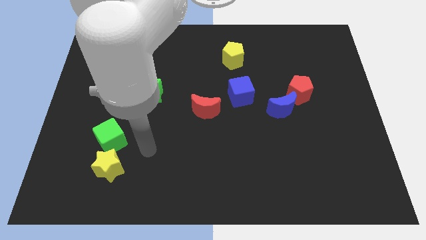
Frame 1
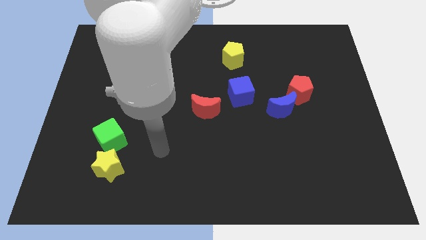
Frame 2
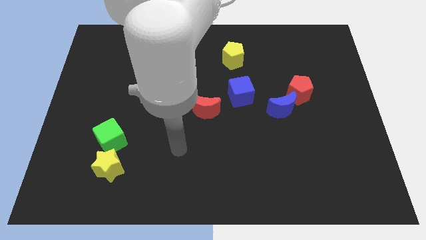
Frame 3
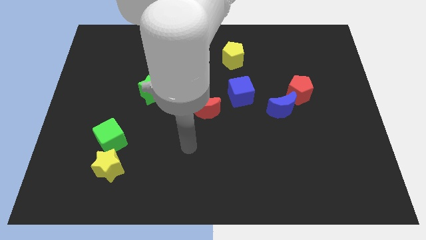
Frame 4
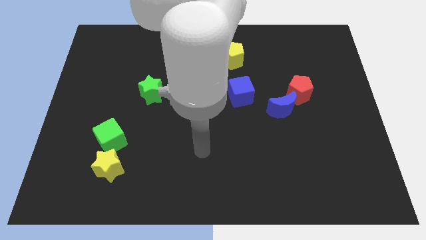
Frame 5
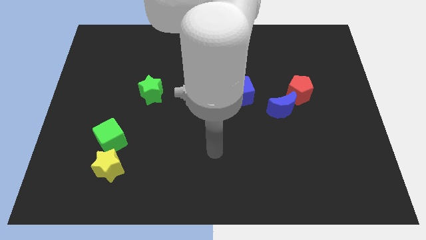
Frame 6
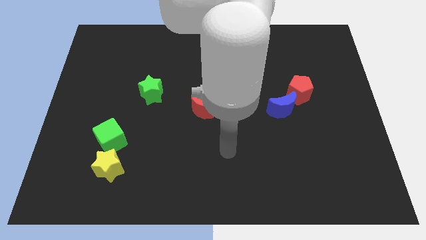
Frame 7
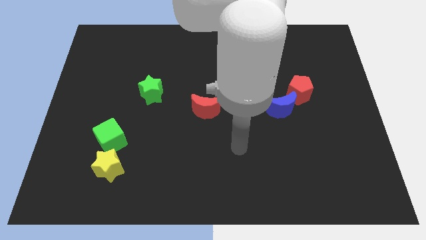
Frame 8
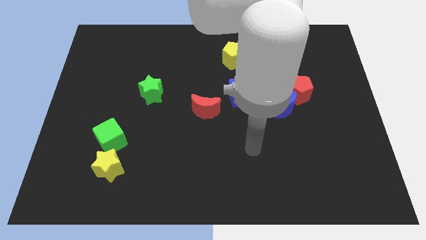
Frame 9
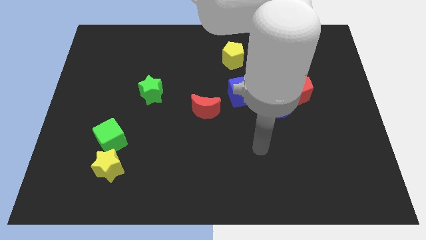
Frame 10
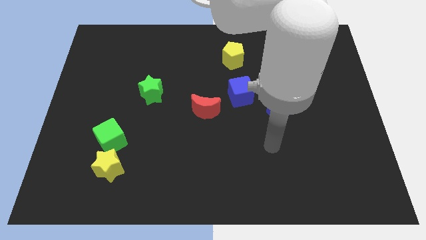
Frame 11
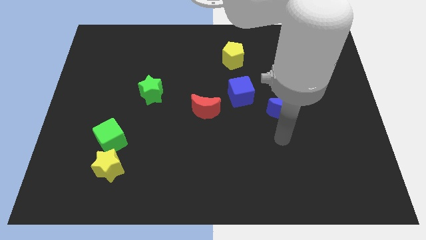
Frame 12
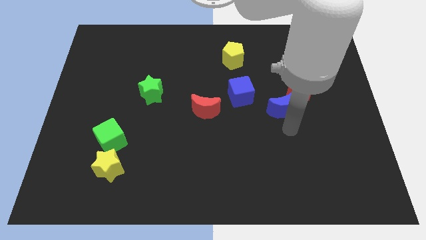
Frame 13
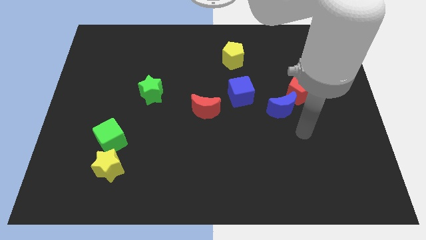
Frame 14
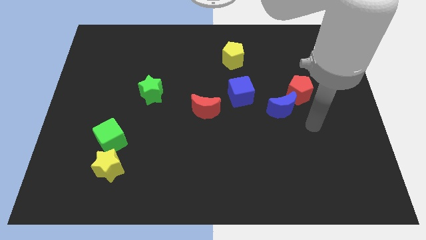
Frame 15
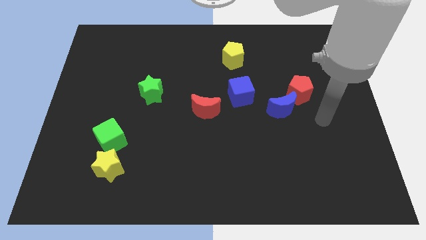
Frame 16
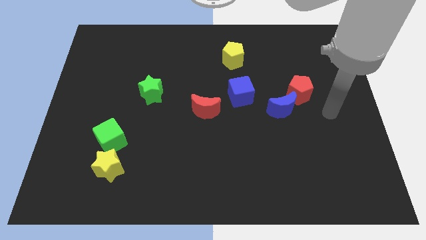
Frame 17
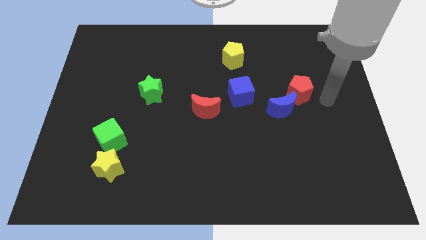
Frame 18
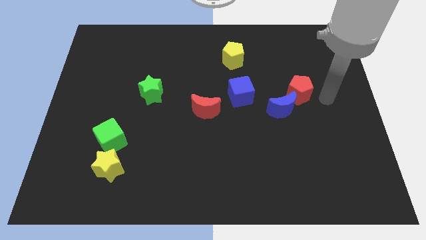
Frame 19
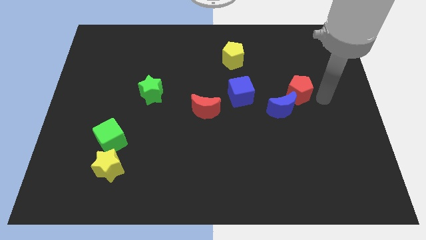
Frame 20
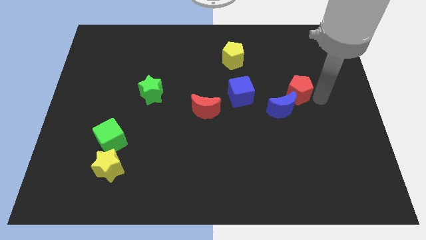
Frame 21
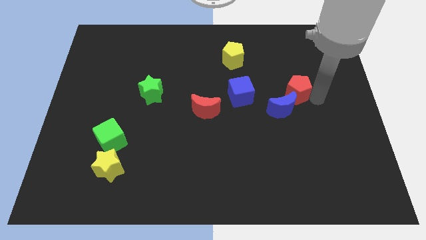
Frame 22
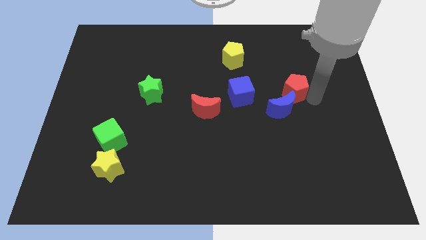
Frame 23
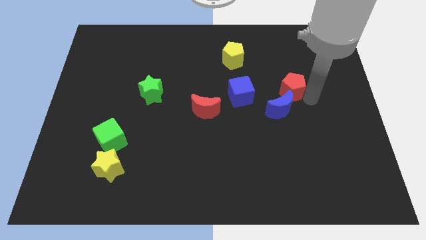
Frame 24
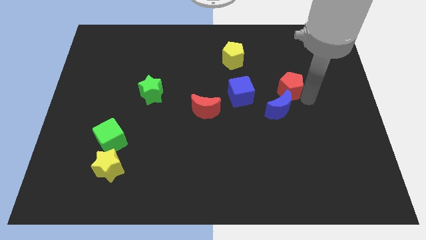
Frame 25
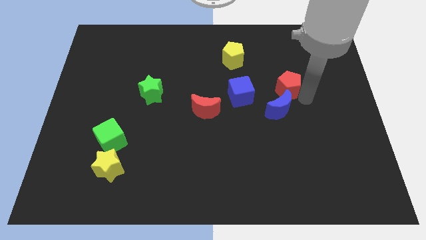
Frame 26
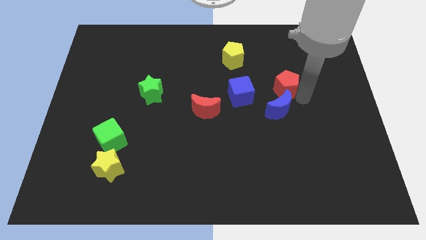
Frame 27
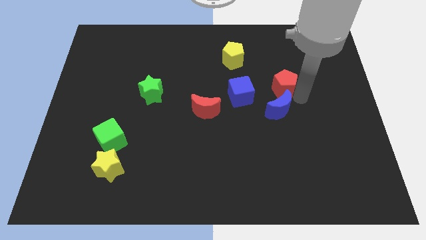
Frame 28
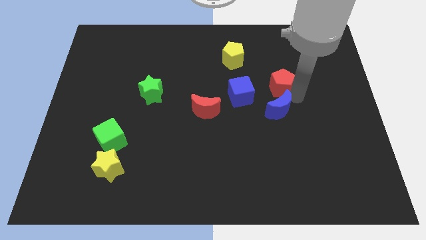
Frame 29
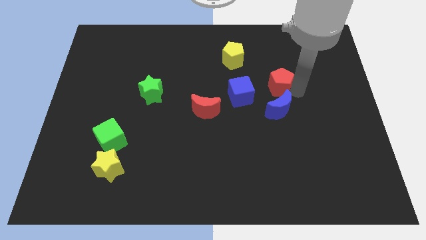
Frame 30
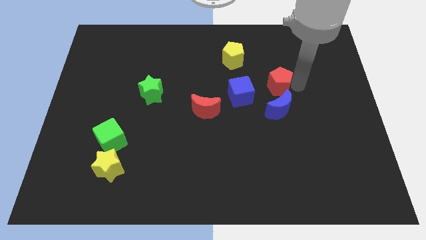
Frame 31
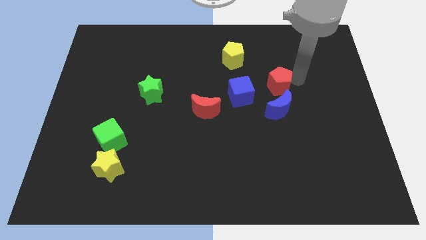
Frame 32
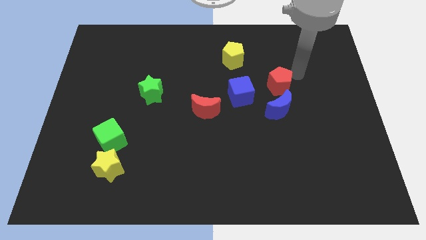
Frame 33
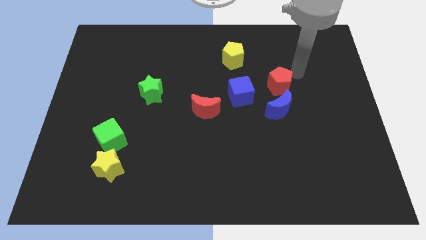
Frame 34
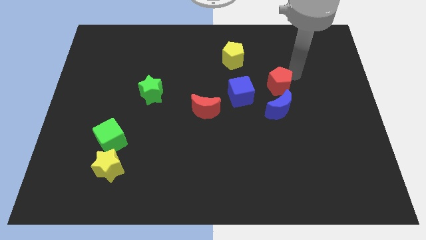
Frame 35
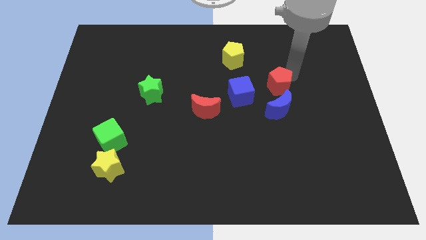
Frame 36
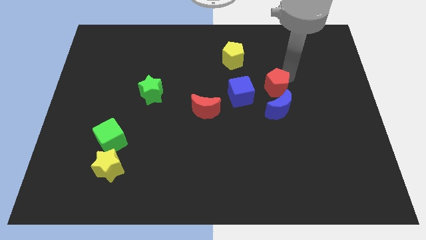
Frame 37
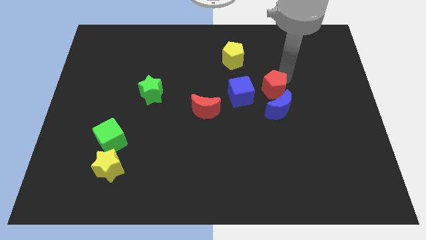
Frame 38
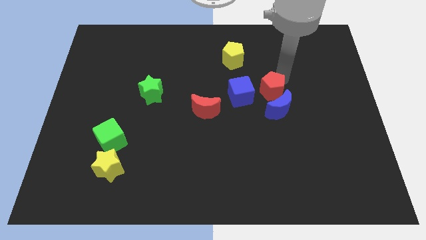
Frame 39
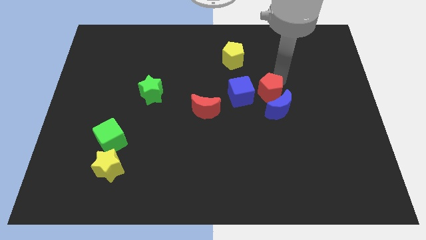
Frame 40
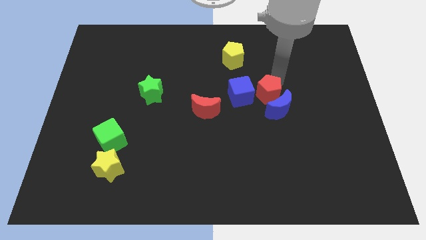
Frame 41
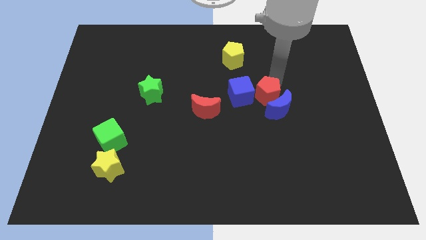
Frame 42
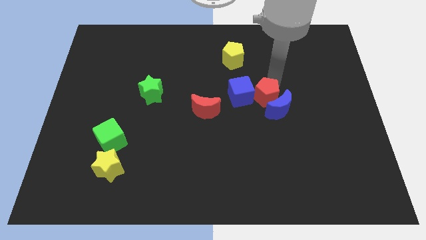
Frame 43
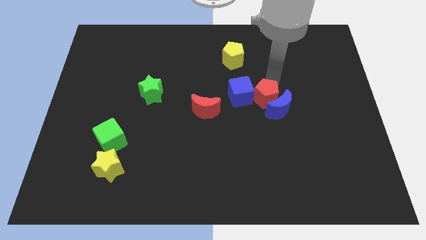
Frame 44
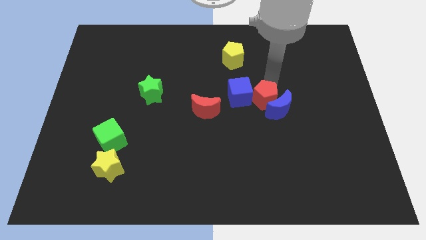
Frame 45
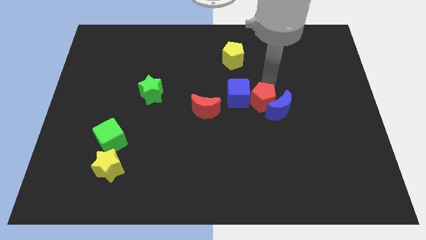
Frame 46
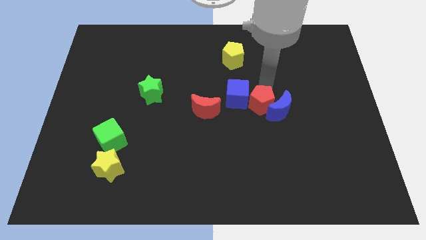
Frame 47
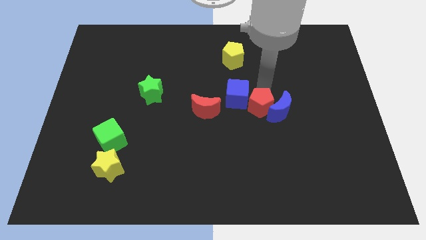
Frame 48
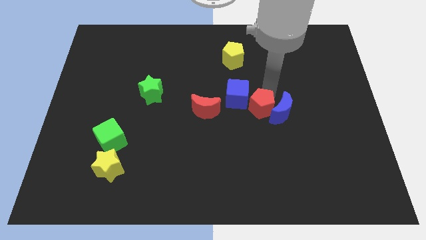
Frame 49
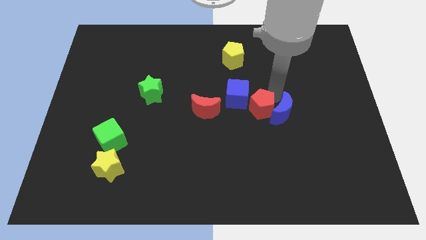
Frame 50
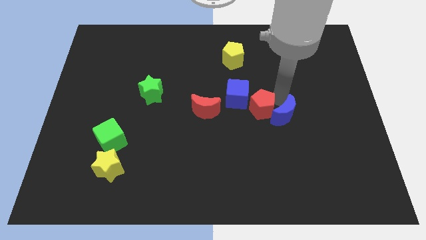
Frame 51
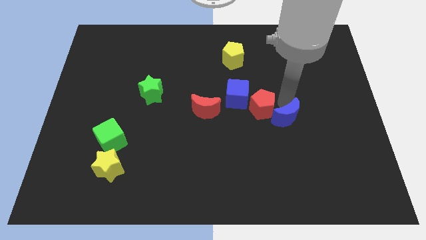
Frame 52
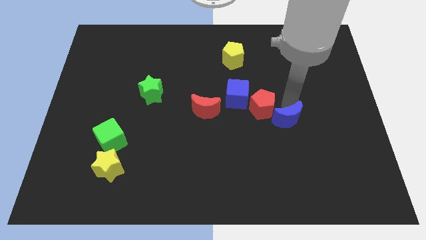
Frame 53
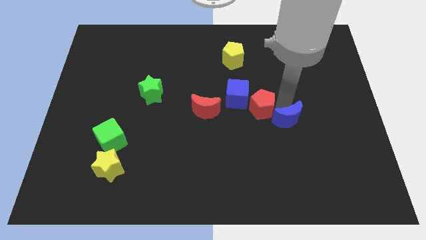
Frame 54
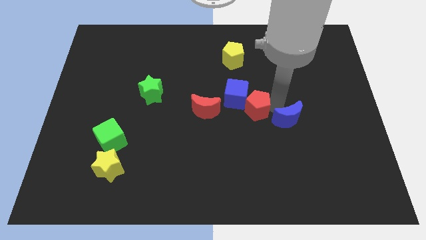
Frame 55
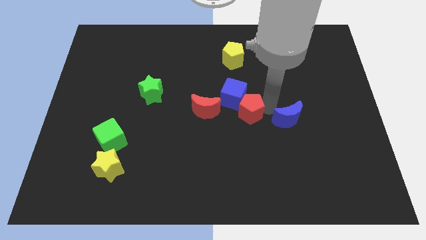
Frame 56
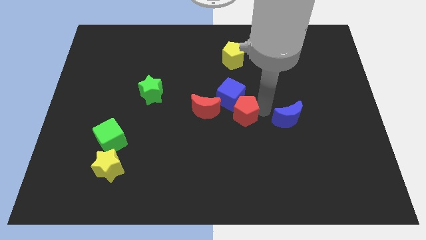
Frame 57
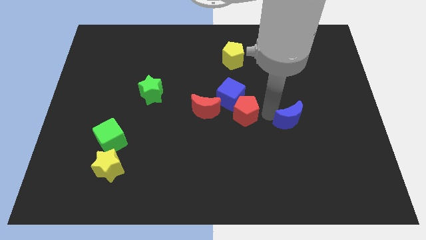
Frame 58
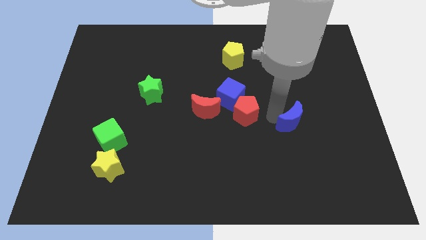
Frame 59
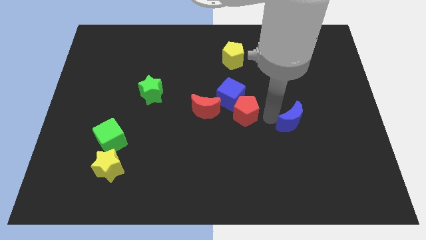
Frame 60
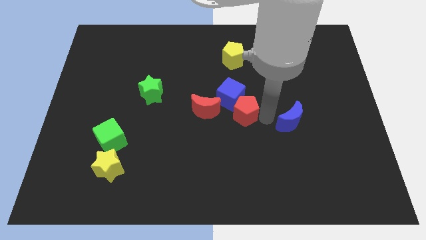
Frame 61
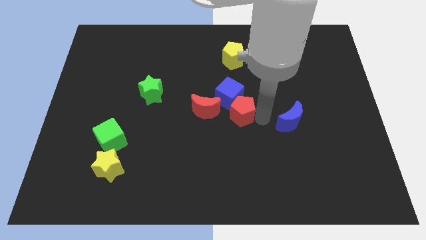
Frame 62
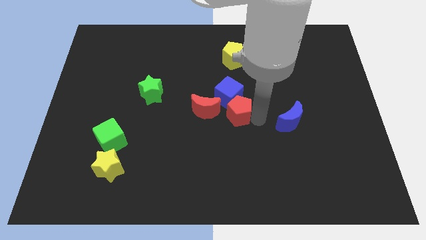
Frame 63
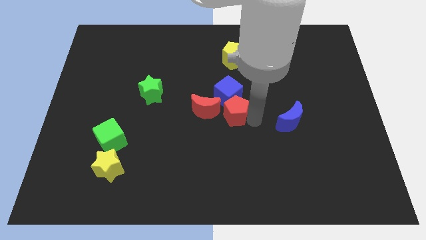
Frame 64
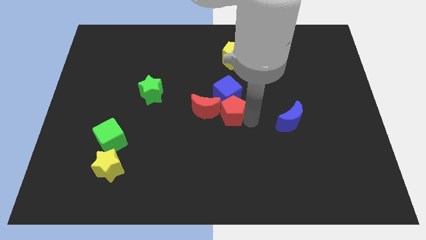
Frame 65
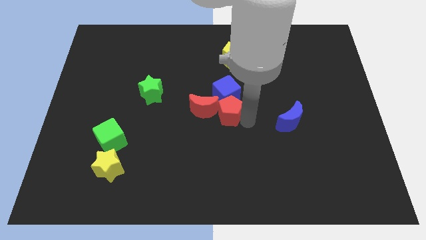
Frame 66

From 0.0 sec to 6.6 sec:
put the red pentagon next to the red moon

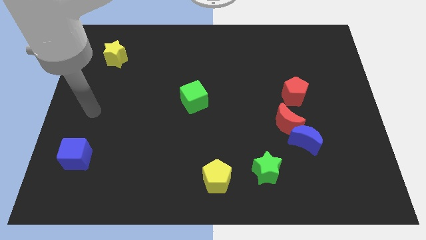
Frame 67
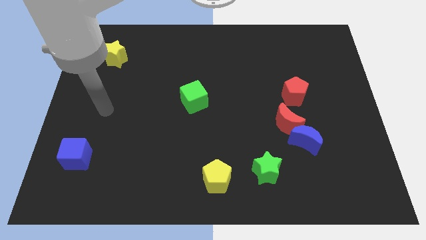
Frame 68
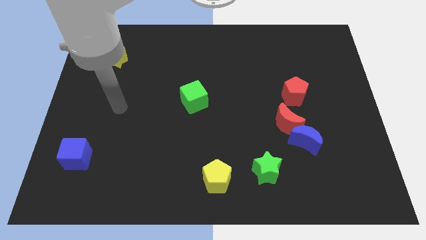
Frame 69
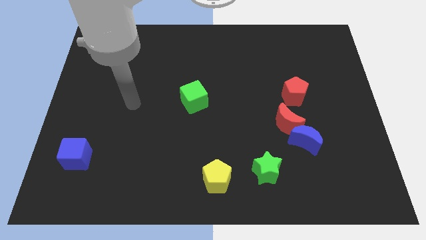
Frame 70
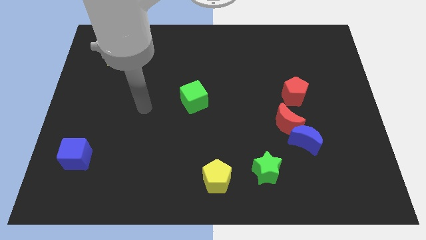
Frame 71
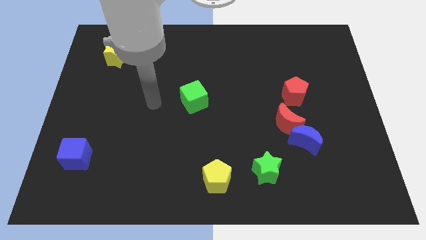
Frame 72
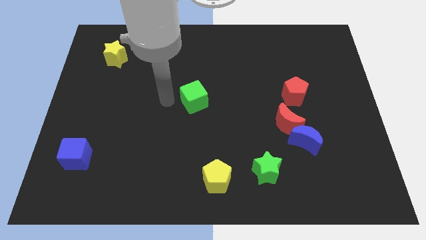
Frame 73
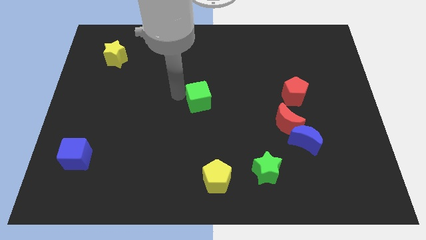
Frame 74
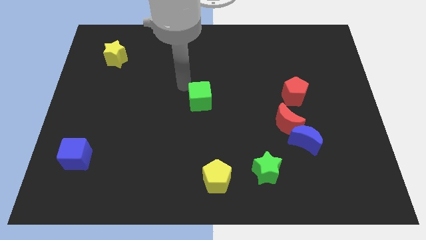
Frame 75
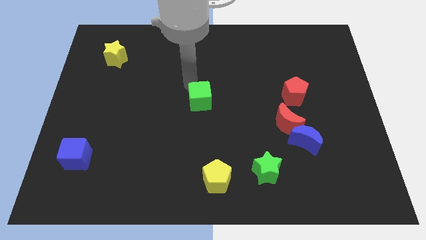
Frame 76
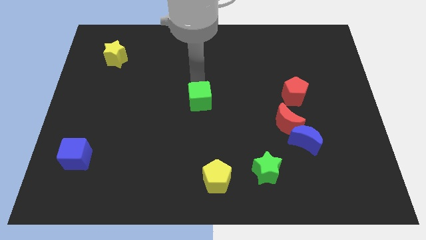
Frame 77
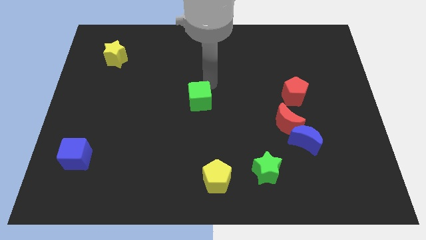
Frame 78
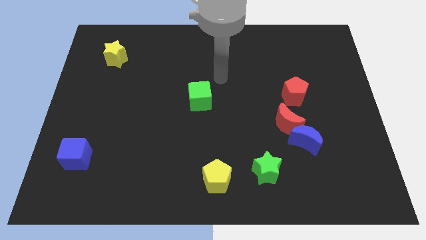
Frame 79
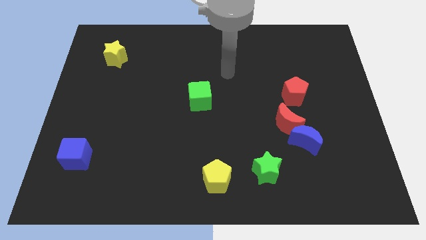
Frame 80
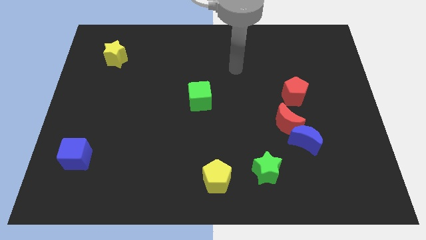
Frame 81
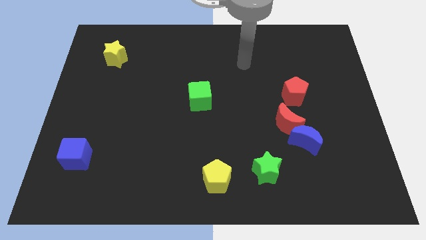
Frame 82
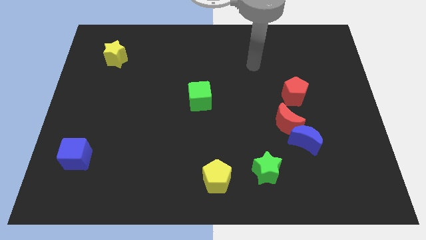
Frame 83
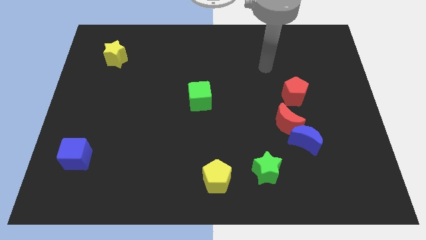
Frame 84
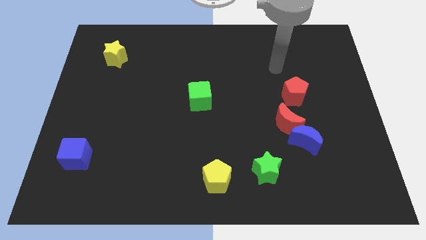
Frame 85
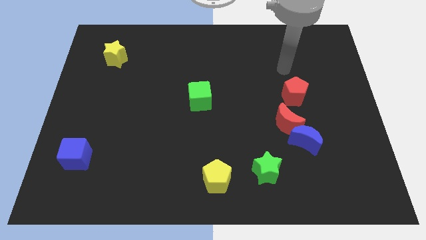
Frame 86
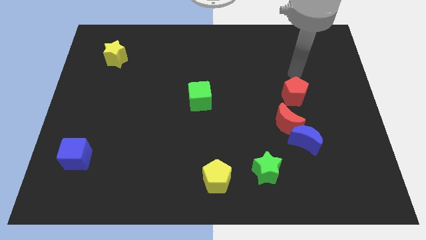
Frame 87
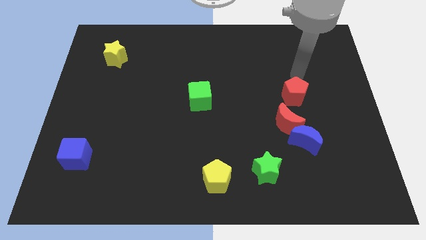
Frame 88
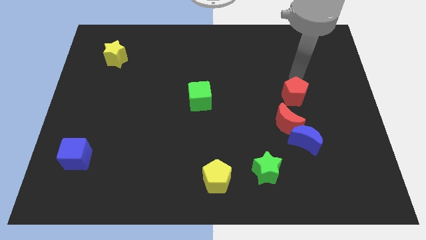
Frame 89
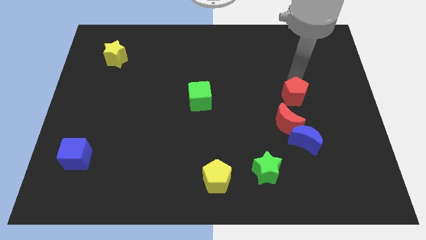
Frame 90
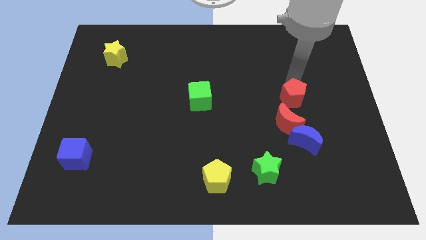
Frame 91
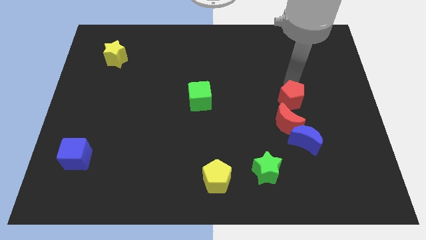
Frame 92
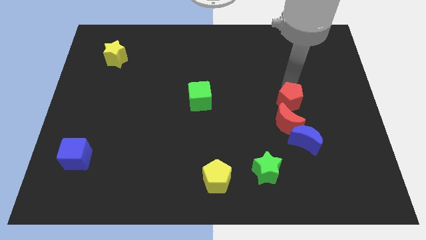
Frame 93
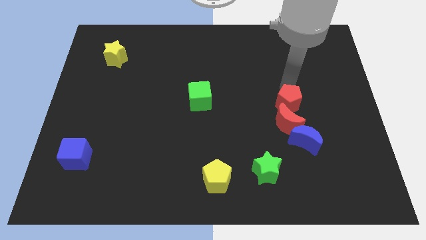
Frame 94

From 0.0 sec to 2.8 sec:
push the red pentagon towards the red moon
